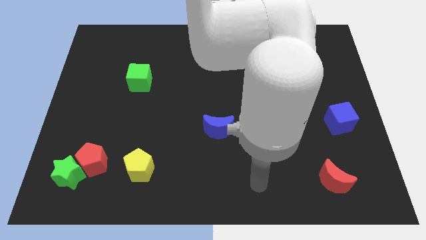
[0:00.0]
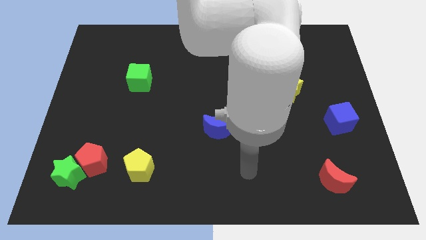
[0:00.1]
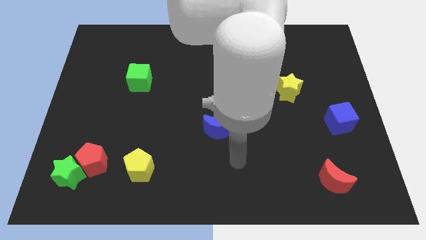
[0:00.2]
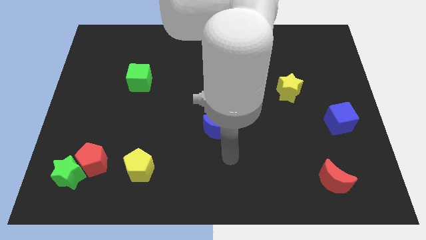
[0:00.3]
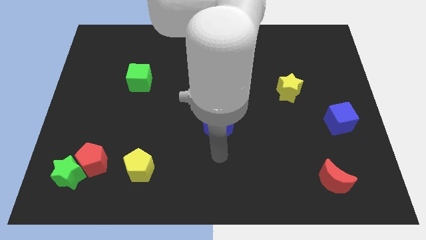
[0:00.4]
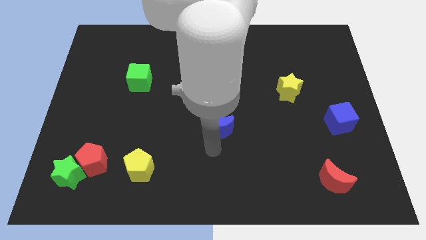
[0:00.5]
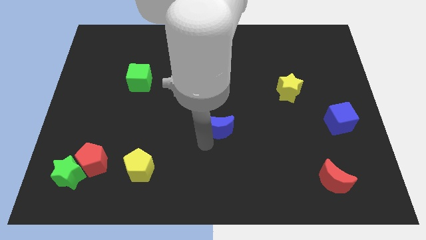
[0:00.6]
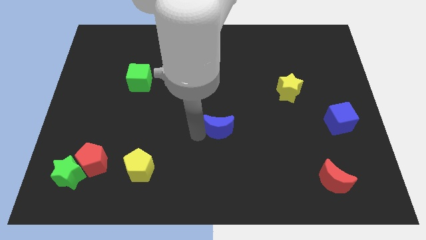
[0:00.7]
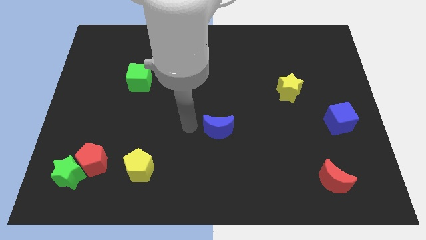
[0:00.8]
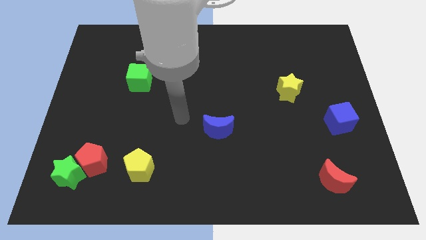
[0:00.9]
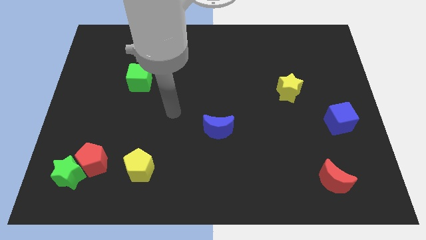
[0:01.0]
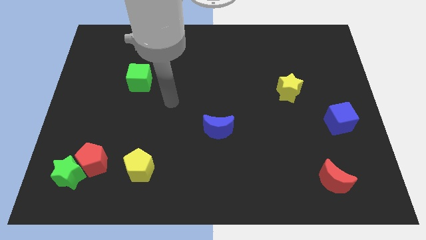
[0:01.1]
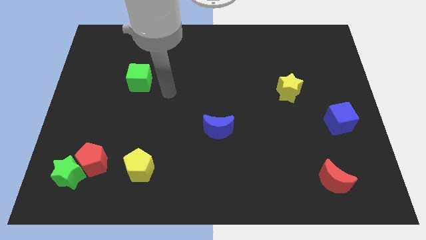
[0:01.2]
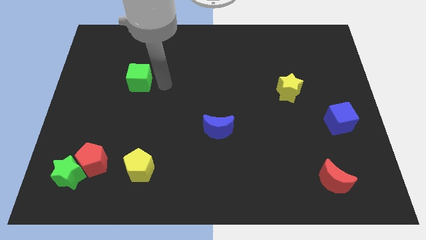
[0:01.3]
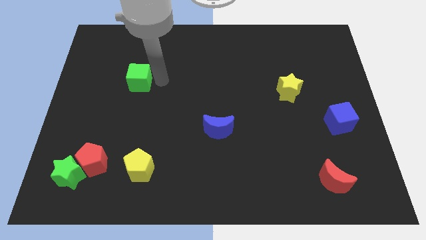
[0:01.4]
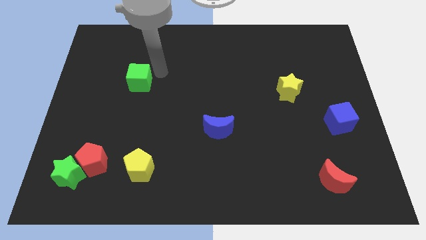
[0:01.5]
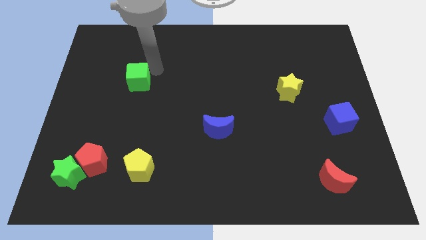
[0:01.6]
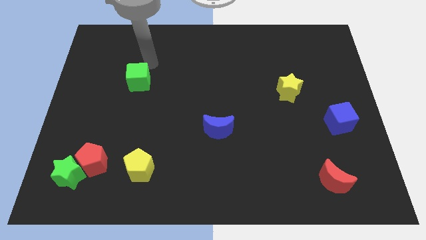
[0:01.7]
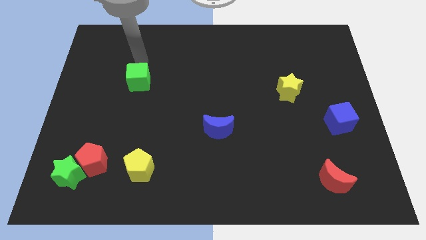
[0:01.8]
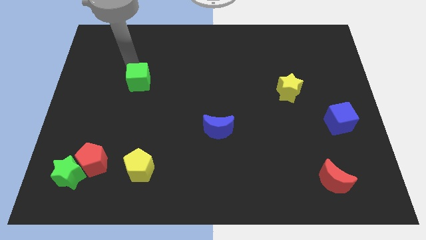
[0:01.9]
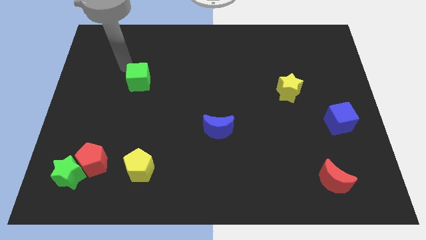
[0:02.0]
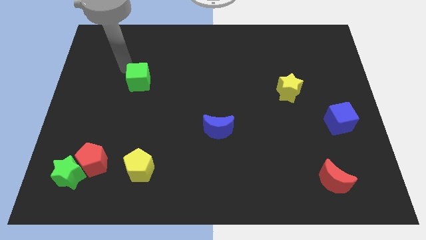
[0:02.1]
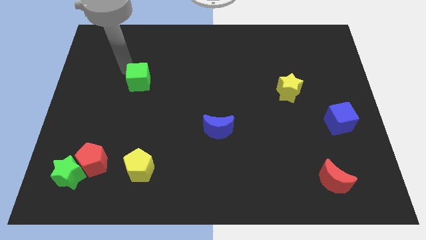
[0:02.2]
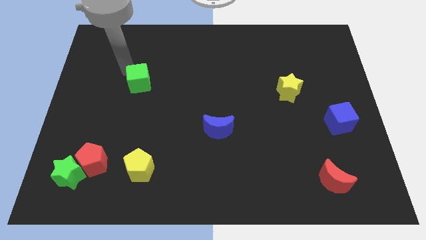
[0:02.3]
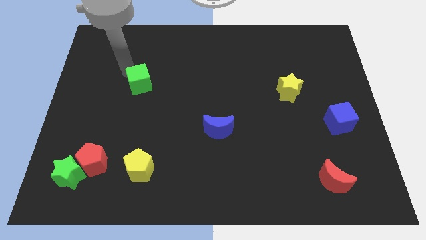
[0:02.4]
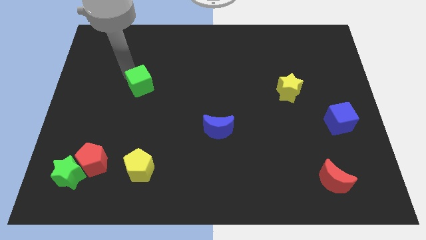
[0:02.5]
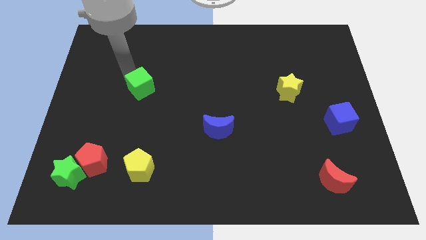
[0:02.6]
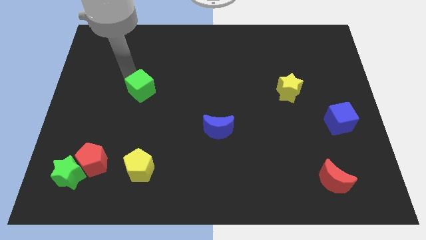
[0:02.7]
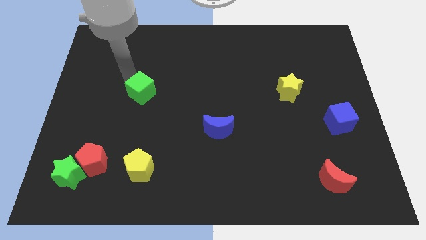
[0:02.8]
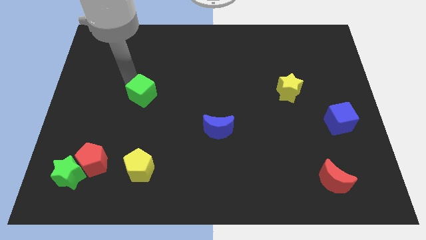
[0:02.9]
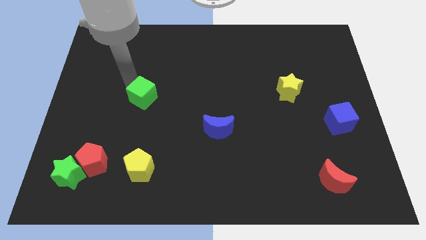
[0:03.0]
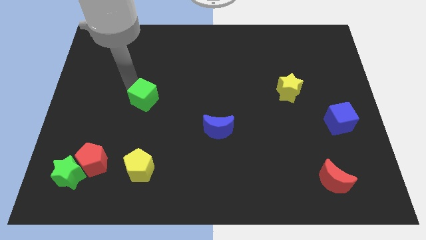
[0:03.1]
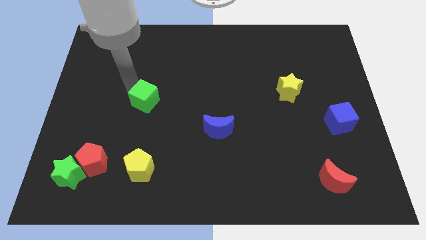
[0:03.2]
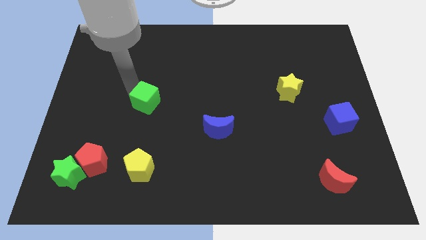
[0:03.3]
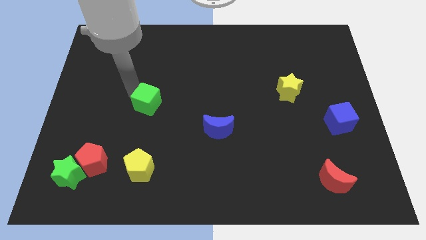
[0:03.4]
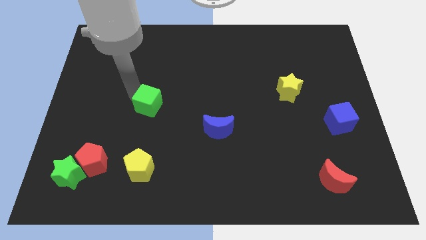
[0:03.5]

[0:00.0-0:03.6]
slightly slide the green cube down and then to the right

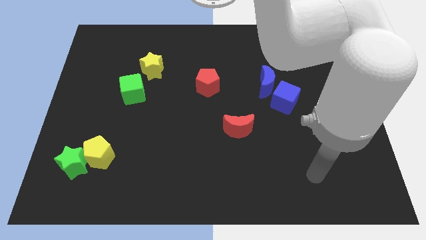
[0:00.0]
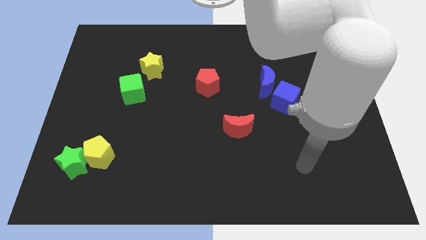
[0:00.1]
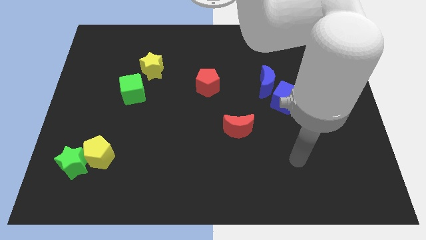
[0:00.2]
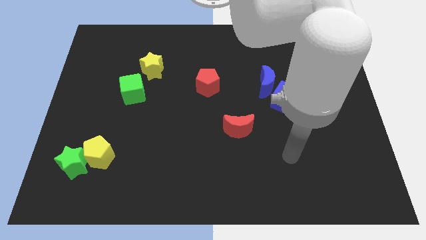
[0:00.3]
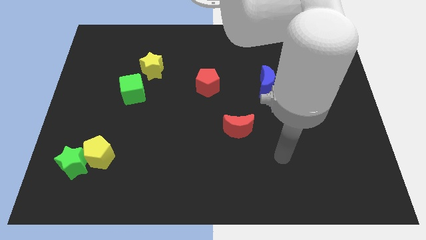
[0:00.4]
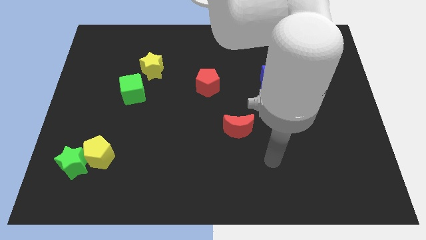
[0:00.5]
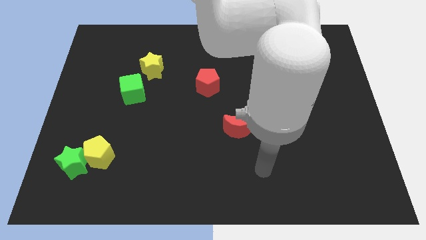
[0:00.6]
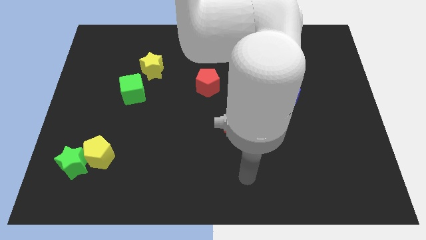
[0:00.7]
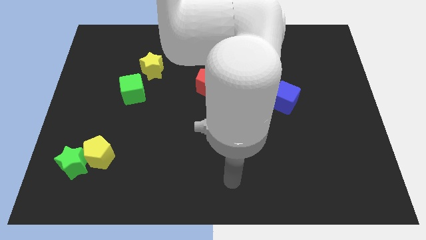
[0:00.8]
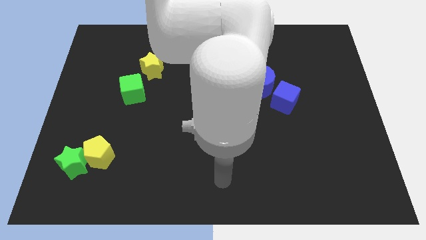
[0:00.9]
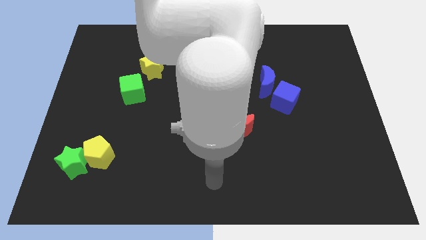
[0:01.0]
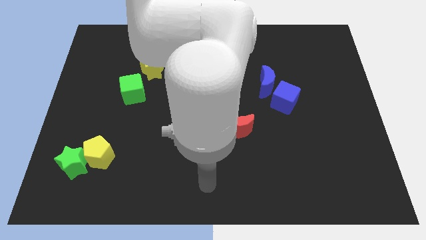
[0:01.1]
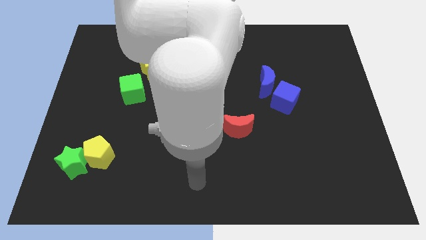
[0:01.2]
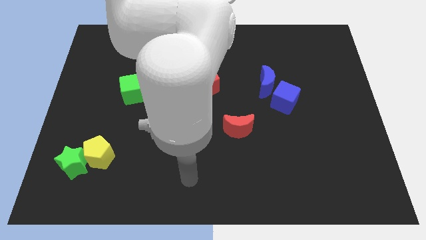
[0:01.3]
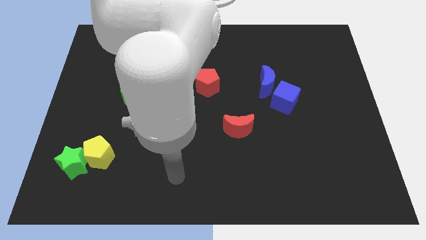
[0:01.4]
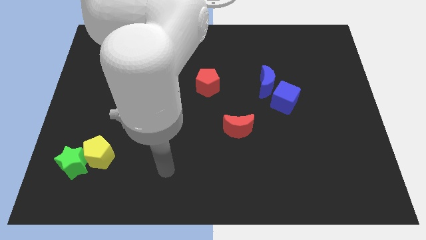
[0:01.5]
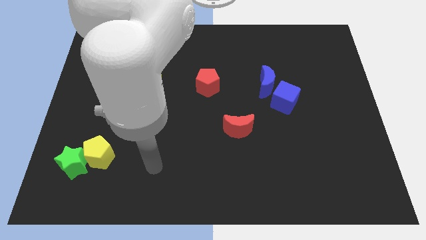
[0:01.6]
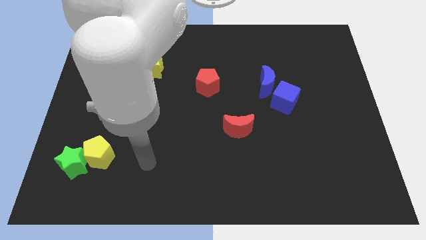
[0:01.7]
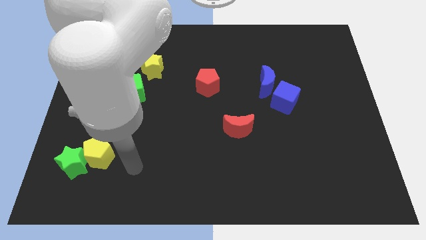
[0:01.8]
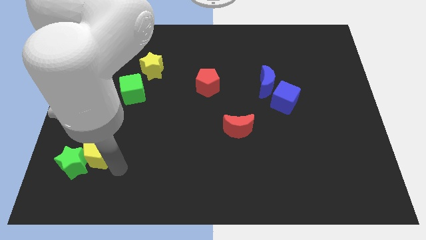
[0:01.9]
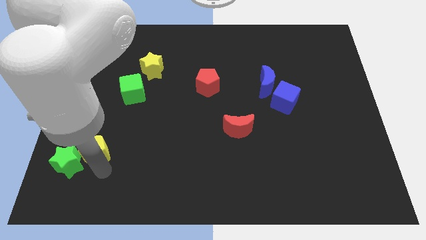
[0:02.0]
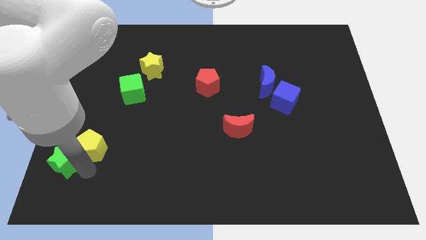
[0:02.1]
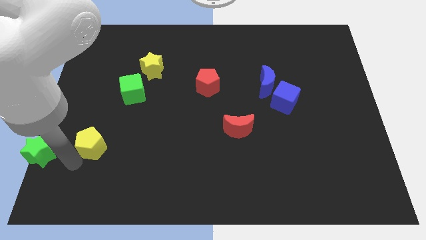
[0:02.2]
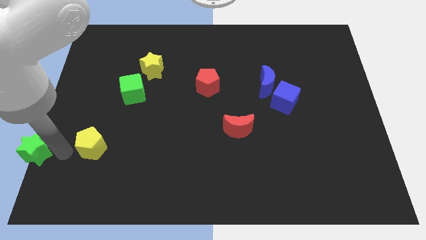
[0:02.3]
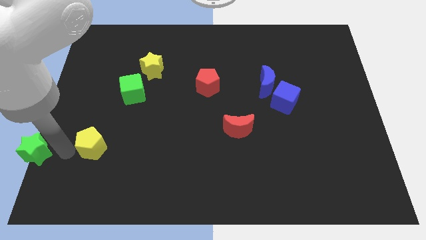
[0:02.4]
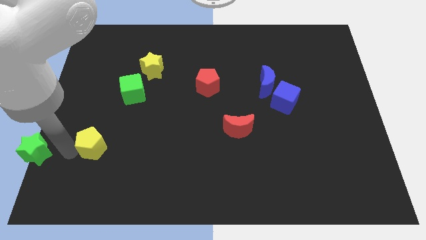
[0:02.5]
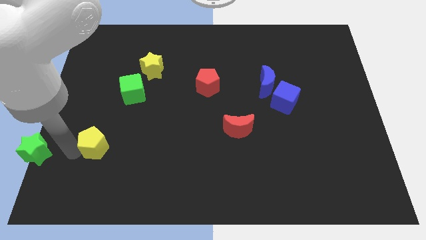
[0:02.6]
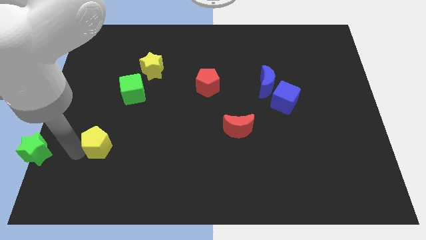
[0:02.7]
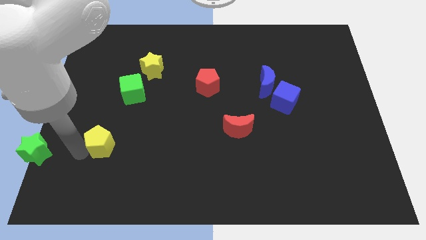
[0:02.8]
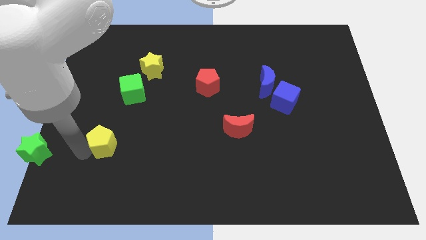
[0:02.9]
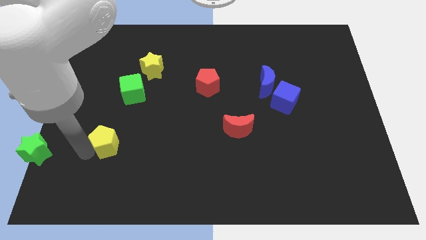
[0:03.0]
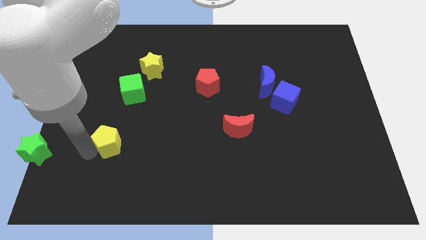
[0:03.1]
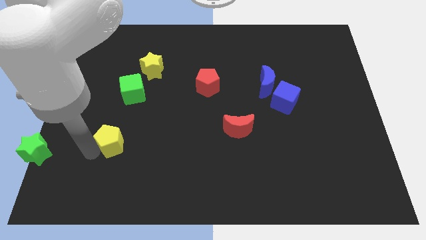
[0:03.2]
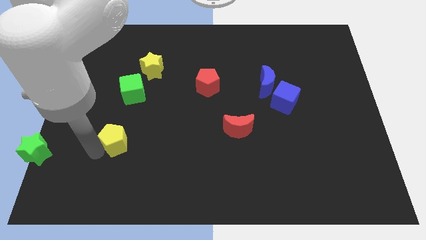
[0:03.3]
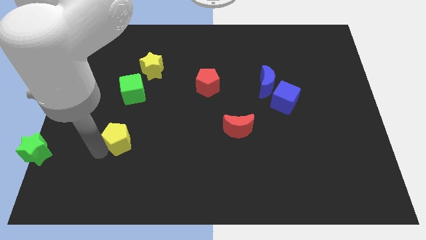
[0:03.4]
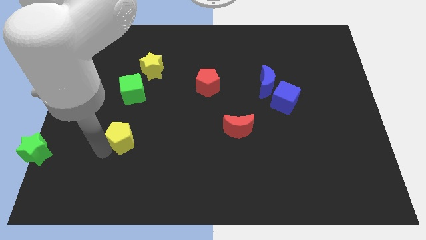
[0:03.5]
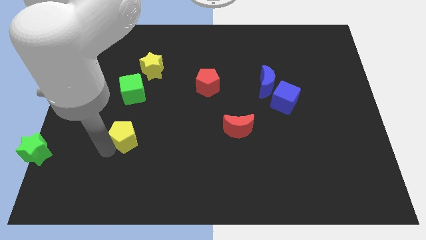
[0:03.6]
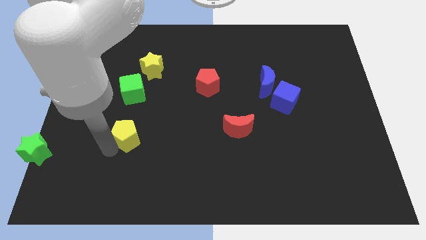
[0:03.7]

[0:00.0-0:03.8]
push the yellow pentagon upwards and to the right somewhat

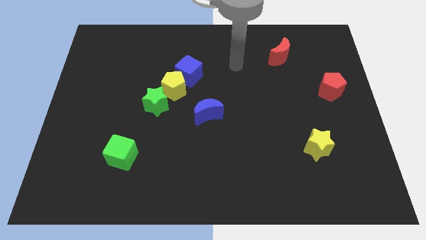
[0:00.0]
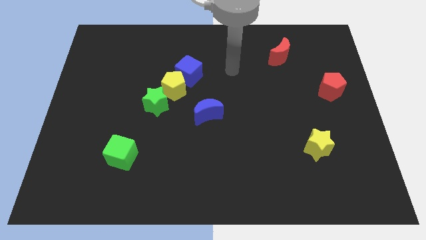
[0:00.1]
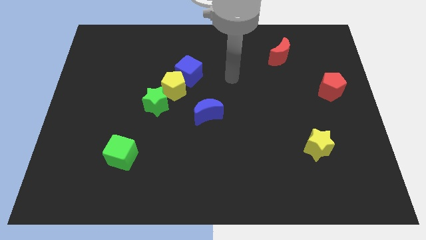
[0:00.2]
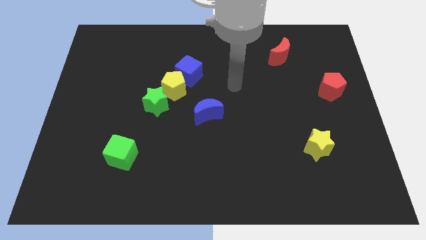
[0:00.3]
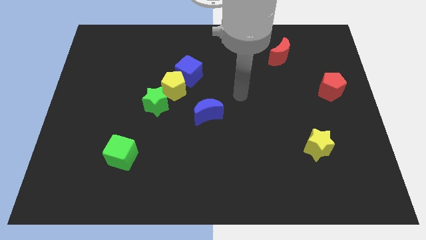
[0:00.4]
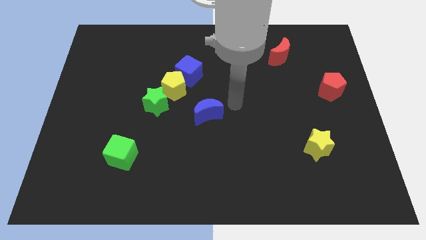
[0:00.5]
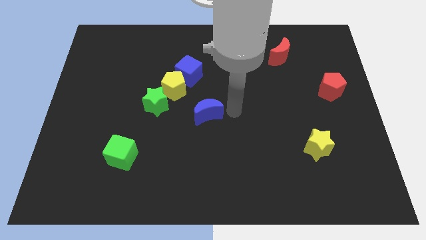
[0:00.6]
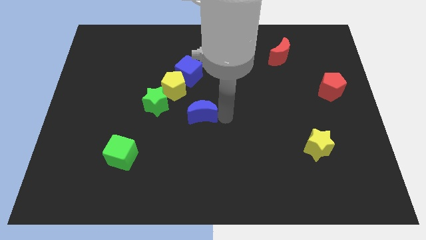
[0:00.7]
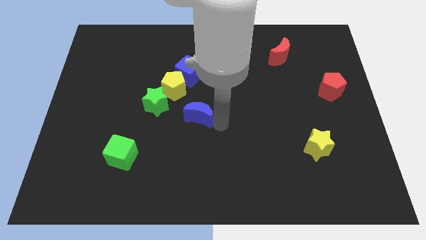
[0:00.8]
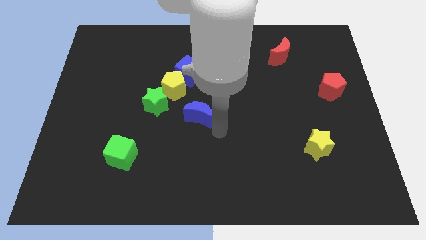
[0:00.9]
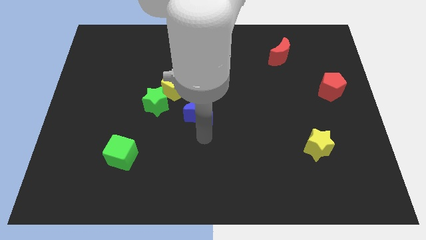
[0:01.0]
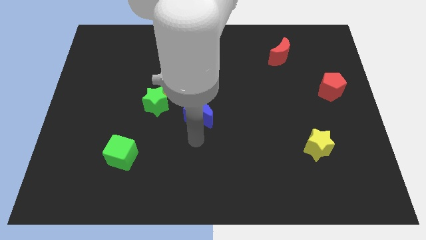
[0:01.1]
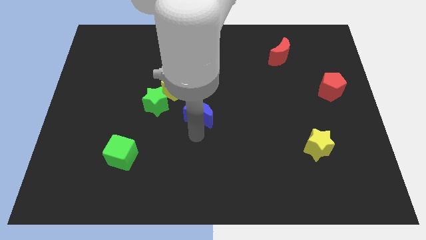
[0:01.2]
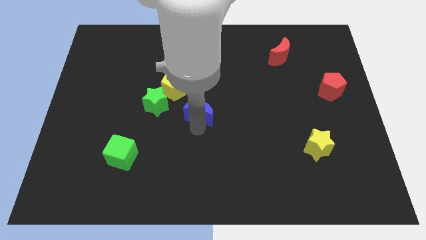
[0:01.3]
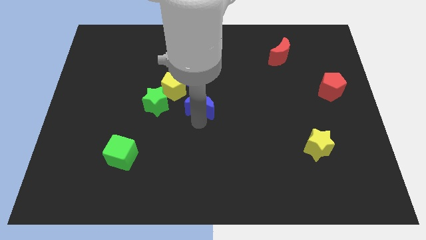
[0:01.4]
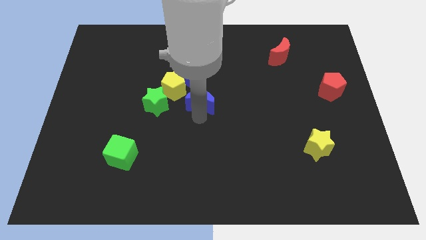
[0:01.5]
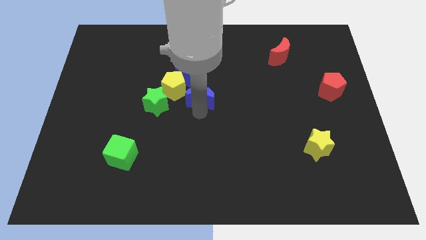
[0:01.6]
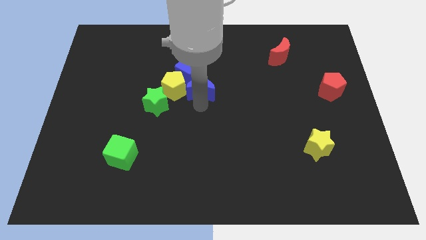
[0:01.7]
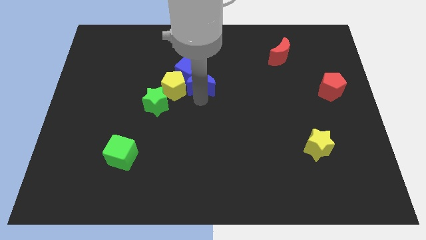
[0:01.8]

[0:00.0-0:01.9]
slightly slide the blue moon up
